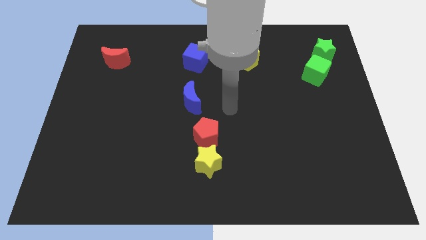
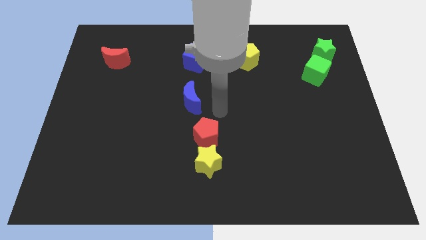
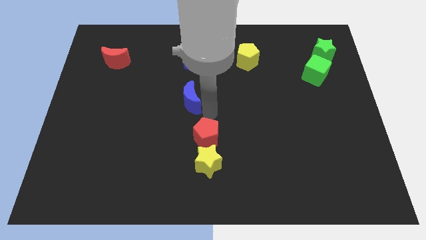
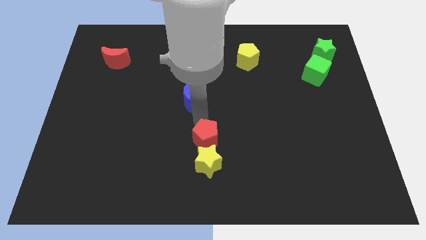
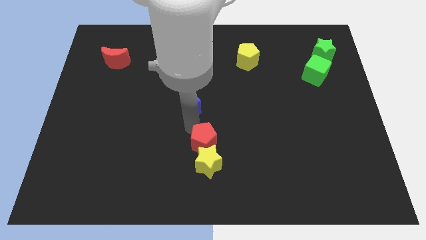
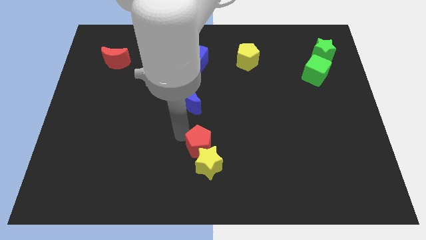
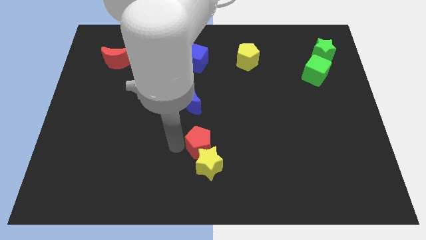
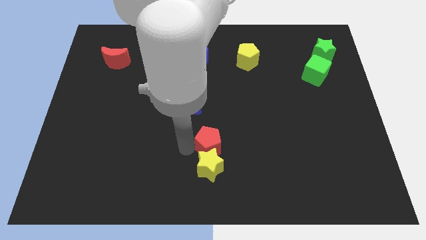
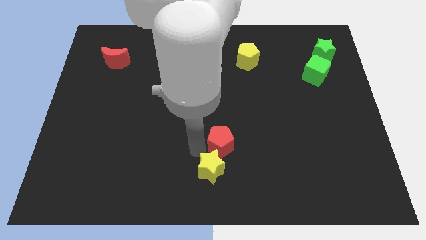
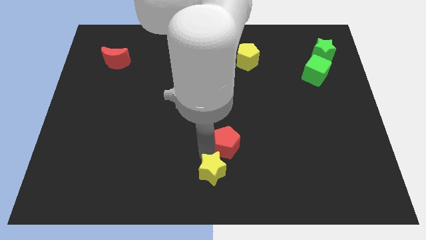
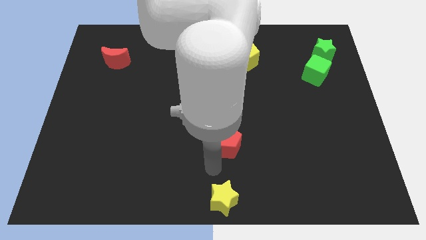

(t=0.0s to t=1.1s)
separate the red pentagon from the yellow star

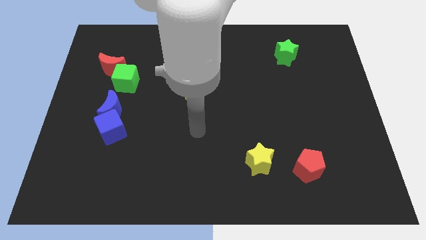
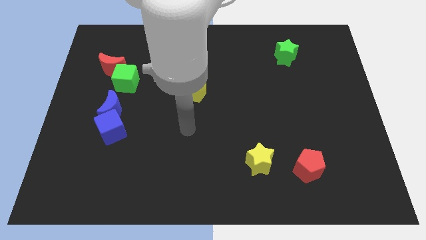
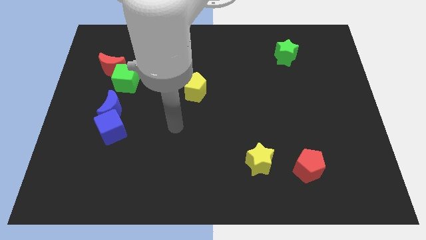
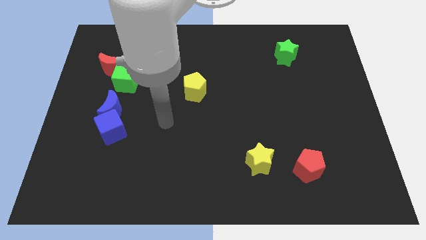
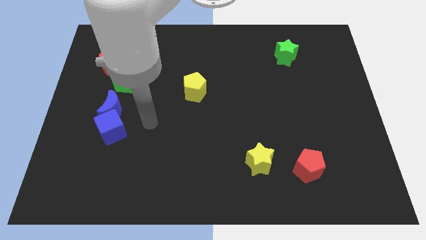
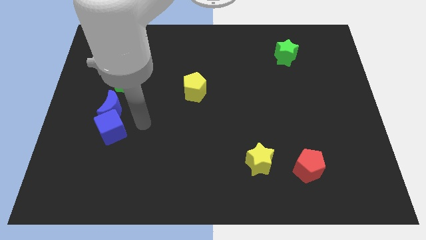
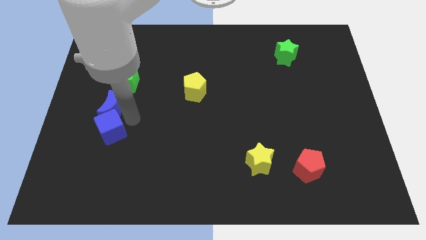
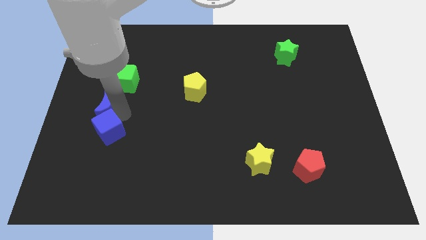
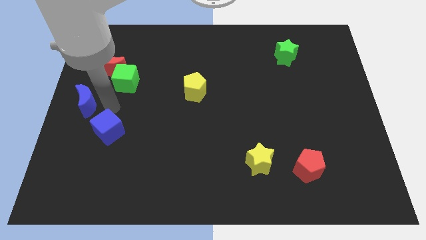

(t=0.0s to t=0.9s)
move the blue cube away from the blue moon

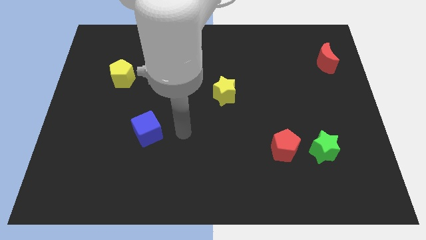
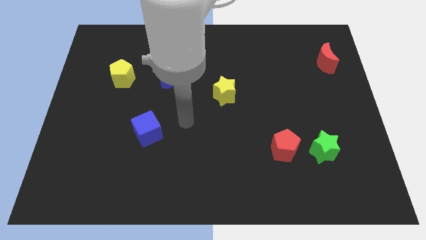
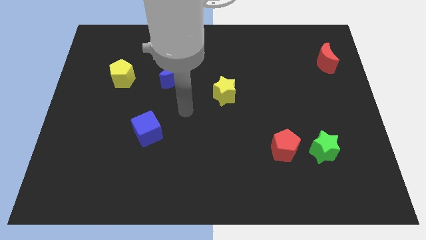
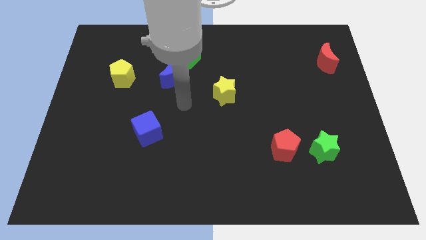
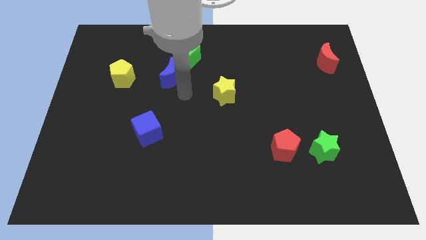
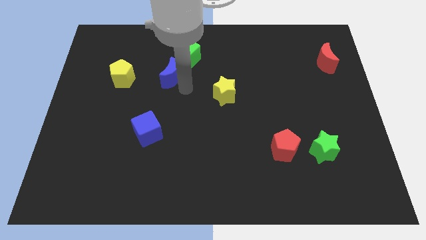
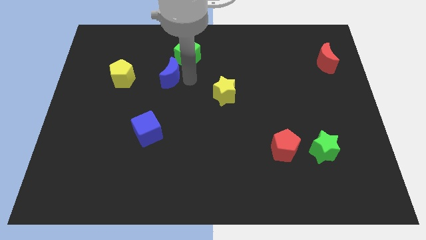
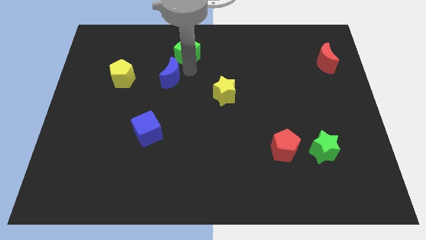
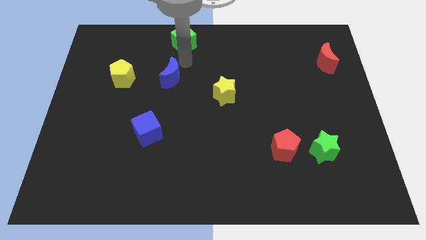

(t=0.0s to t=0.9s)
pull the blue moon apart from the green cube

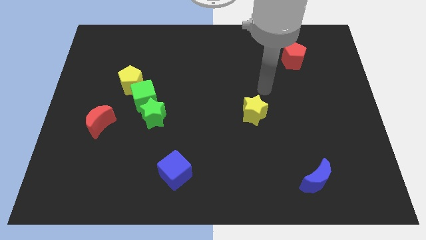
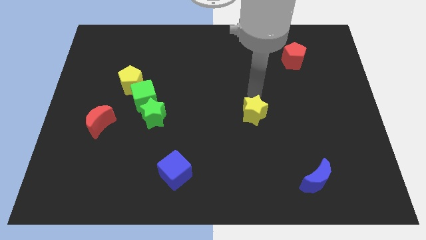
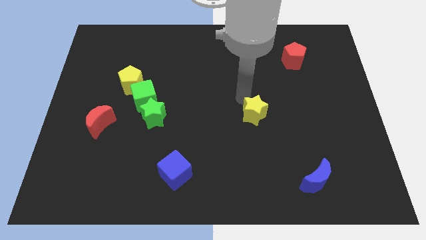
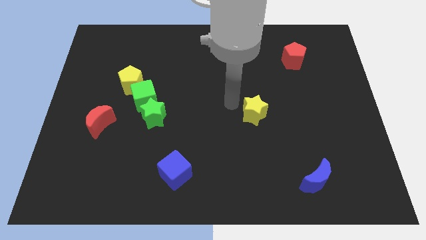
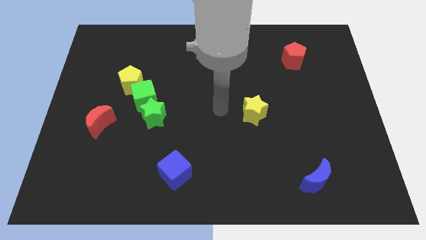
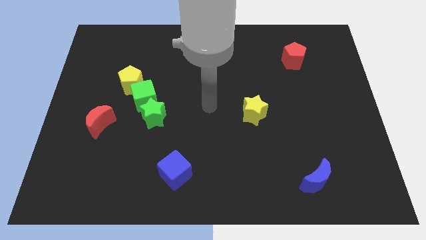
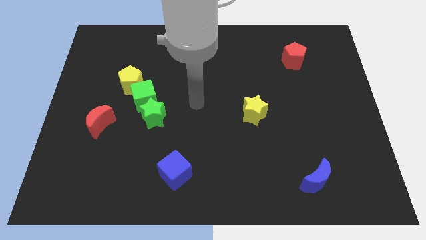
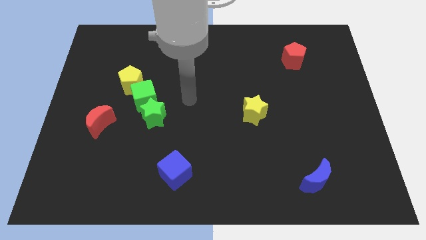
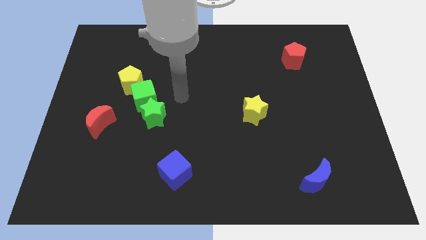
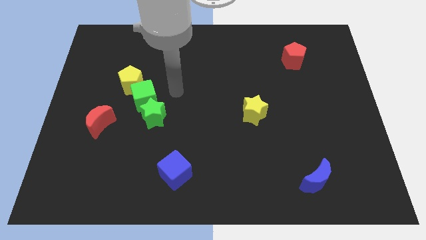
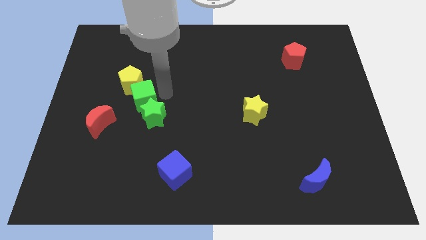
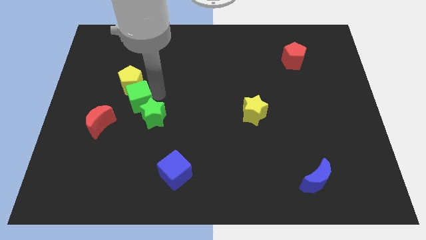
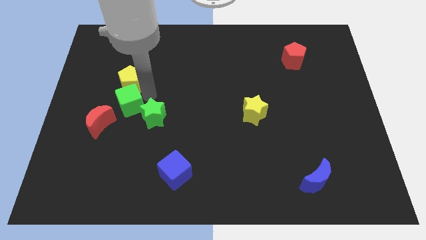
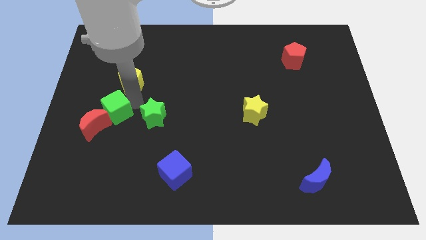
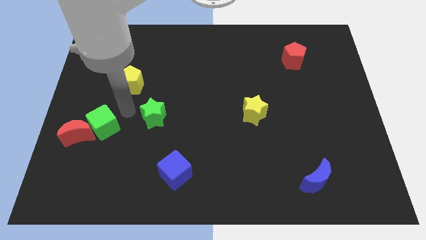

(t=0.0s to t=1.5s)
move the green star away from the green cube

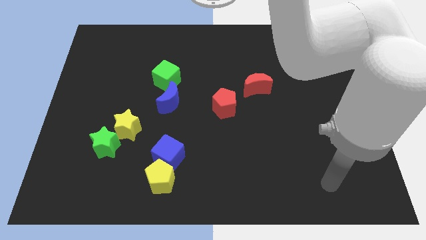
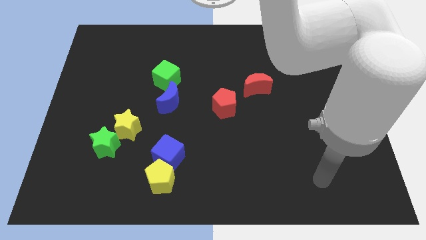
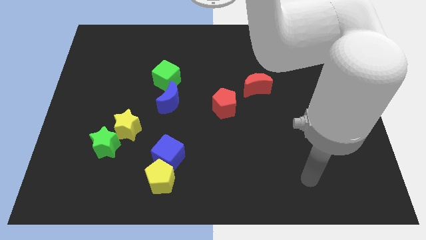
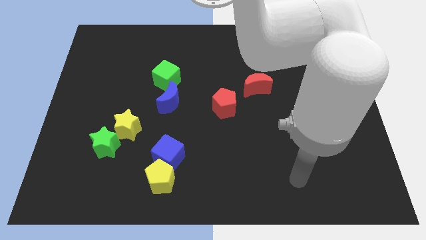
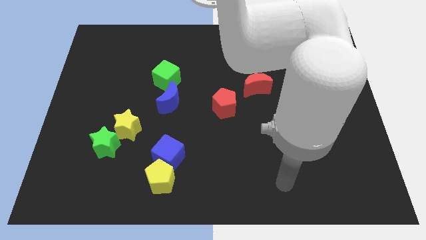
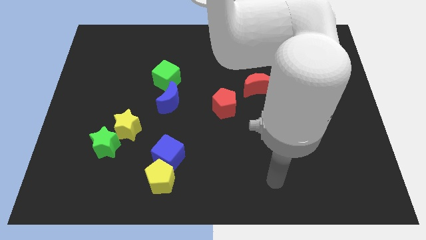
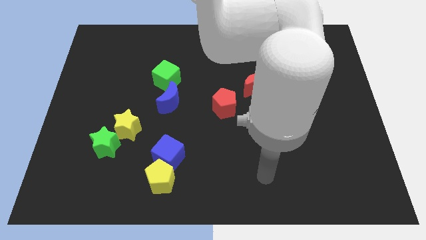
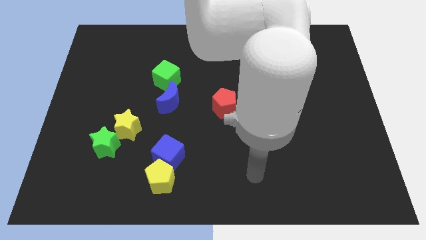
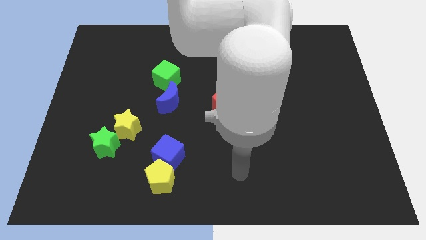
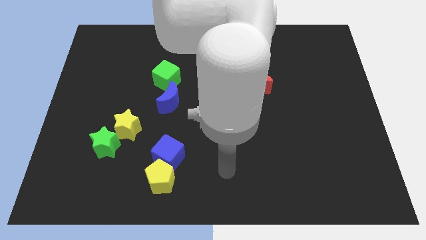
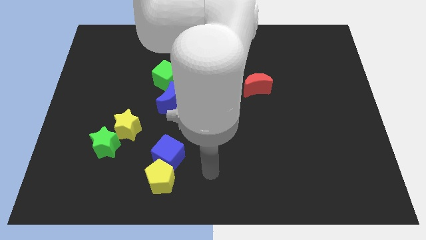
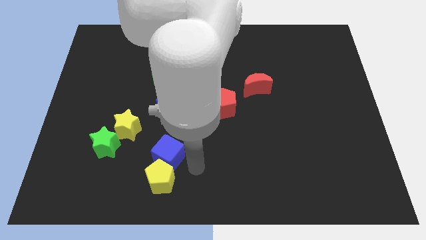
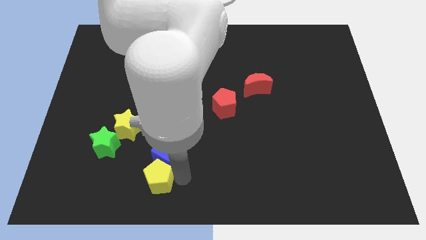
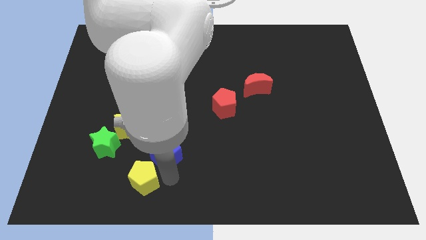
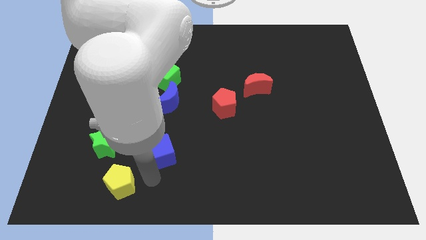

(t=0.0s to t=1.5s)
pull the blue cube apart from the yellow pentagon

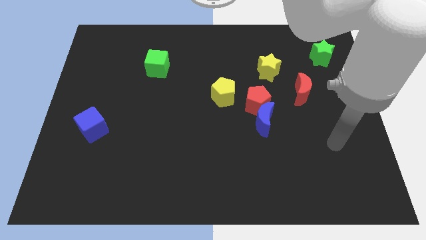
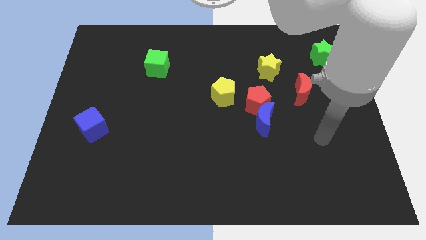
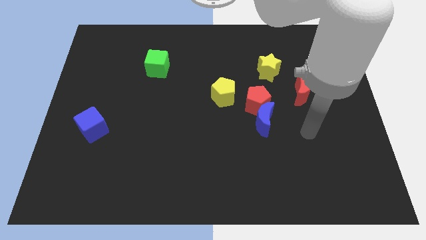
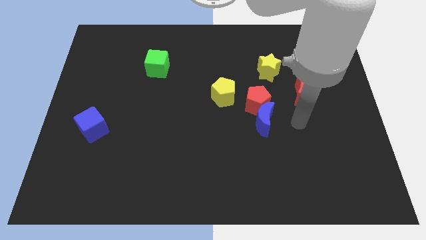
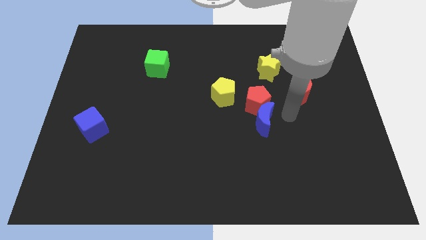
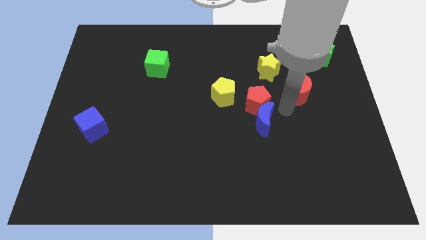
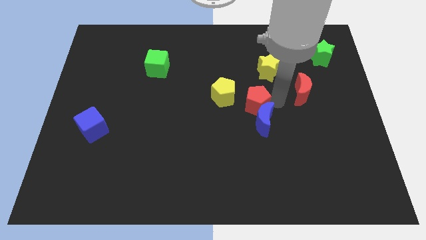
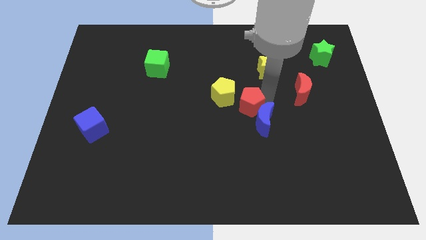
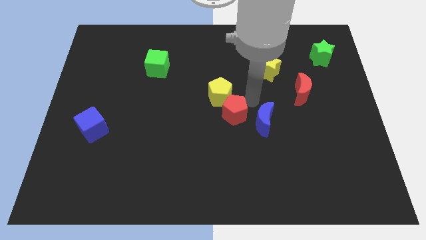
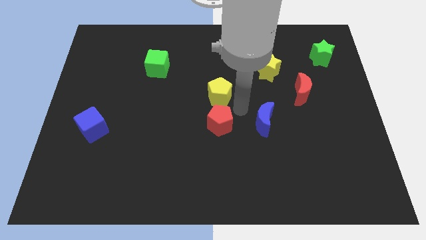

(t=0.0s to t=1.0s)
move the blue moon away from the red pentagon

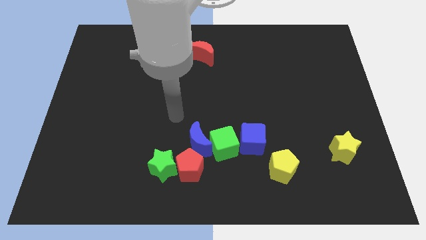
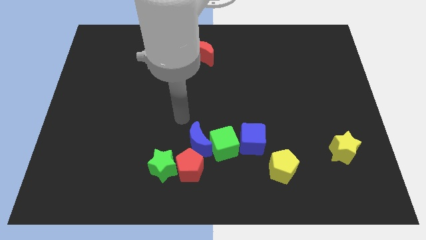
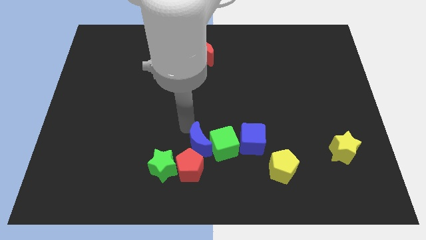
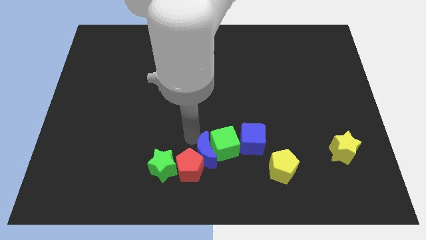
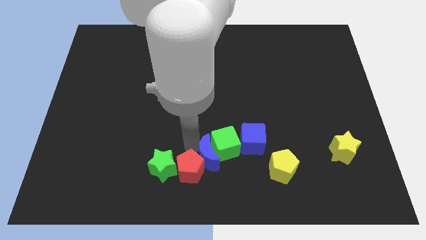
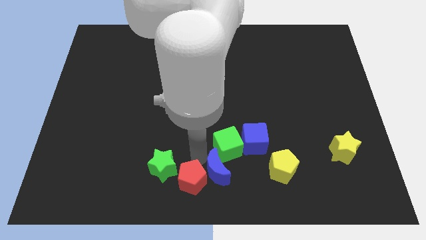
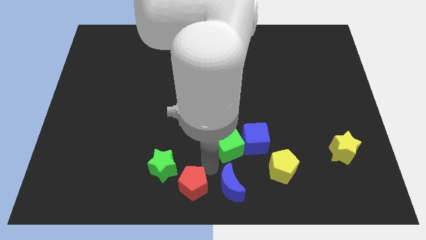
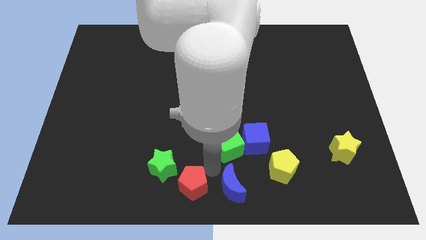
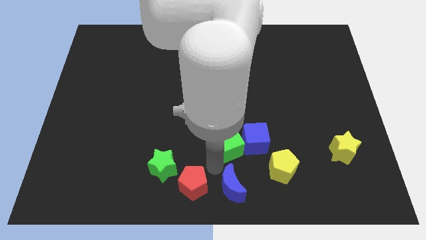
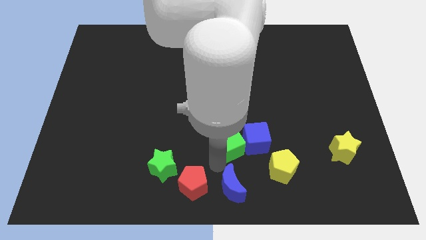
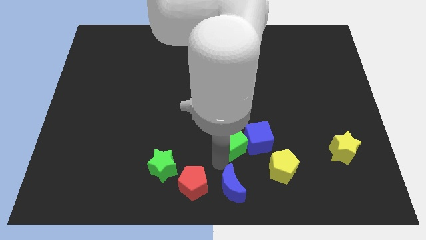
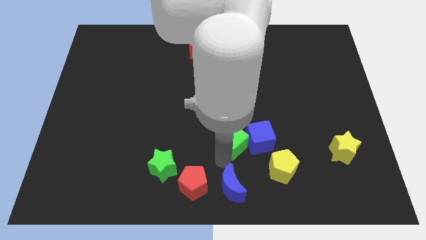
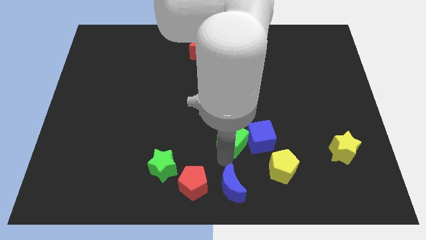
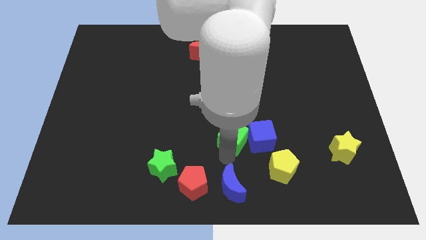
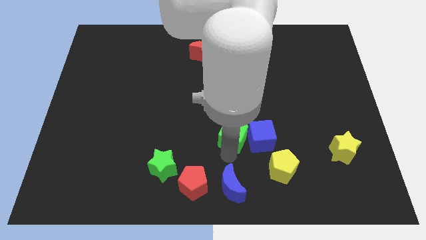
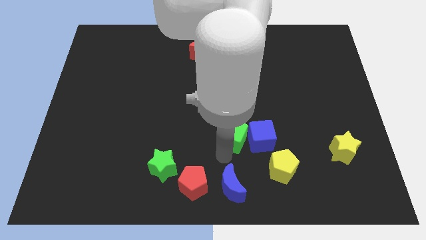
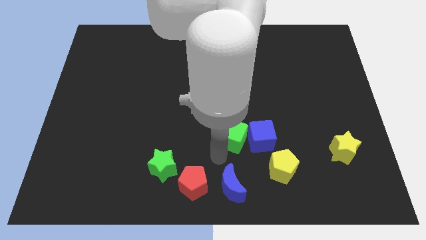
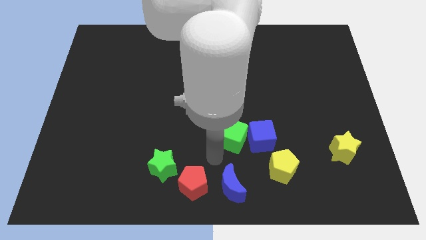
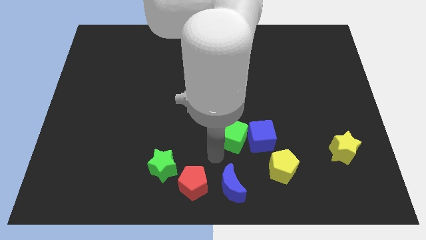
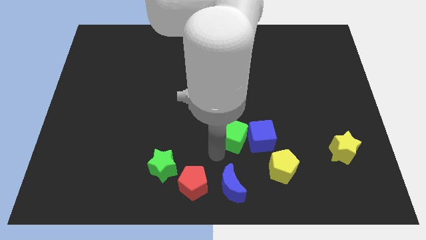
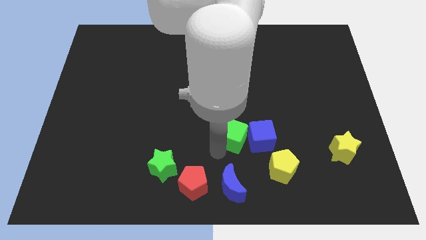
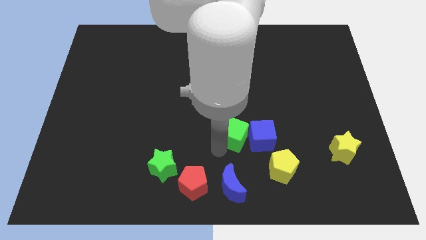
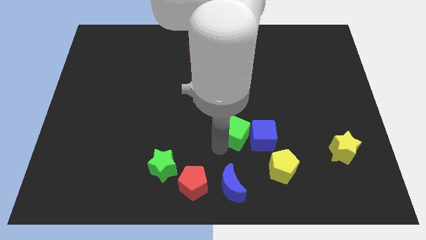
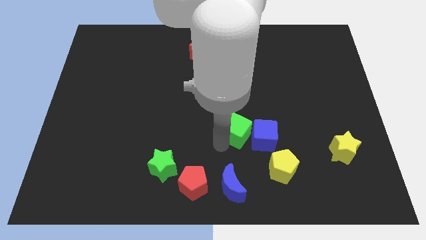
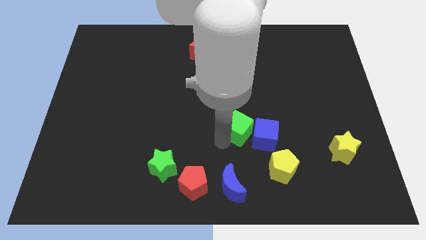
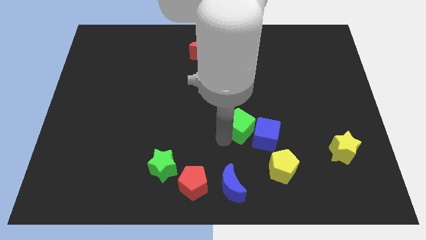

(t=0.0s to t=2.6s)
pull the green cube apart from the group of blocks
